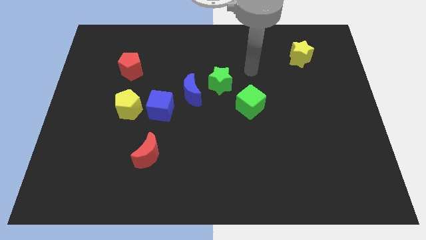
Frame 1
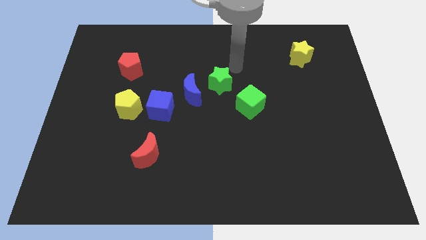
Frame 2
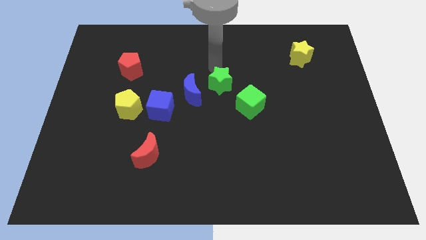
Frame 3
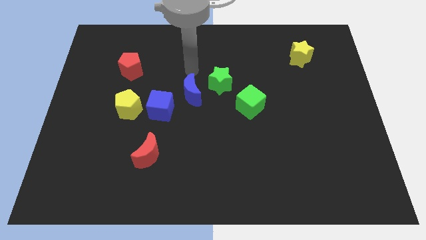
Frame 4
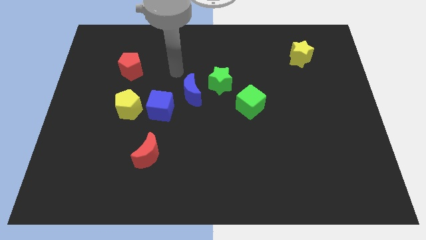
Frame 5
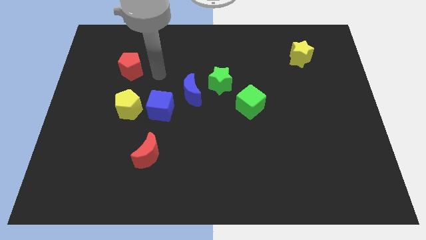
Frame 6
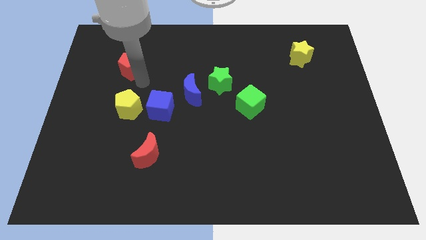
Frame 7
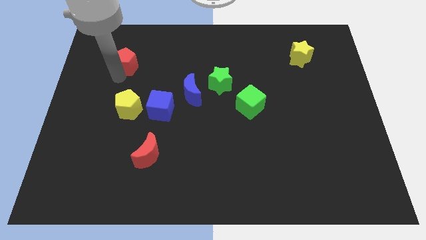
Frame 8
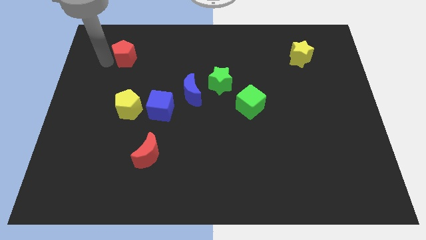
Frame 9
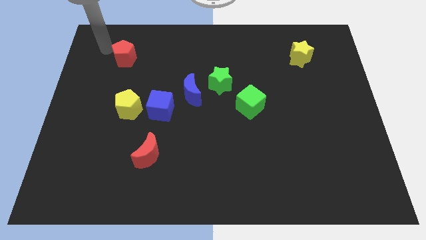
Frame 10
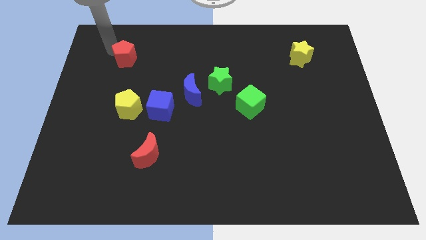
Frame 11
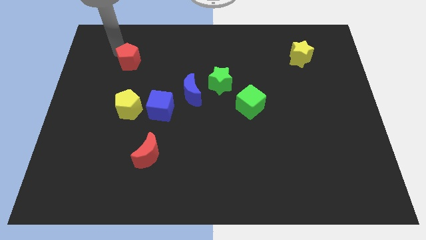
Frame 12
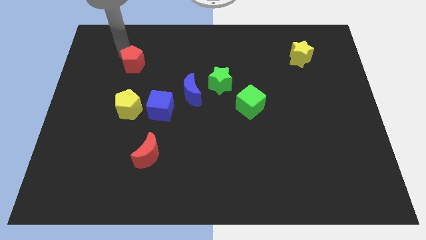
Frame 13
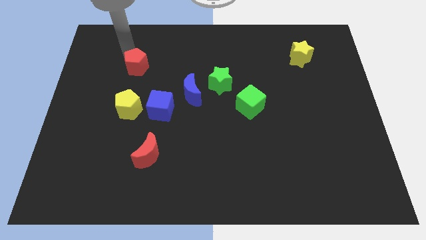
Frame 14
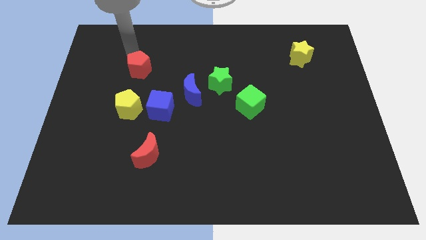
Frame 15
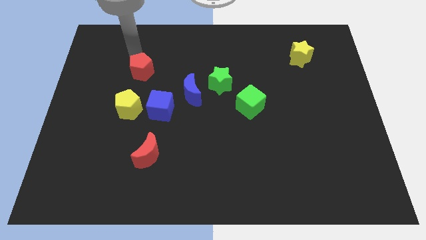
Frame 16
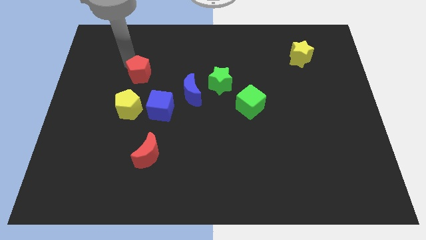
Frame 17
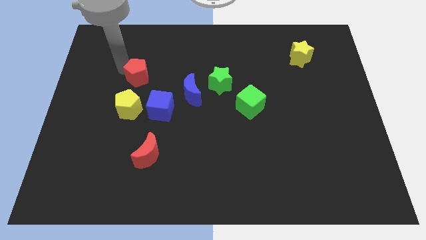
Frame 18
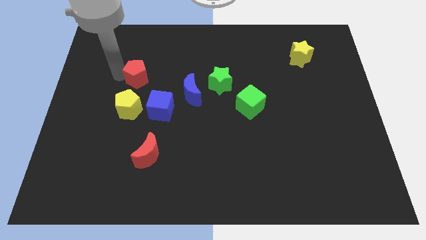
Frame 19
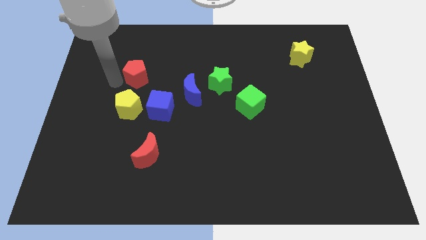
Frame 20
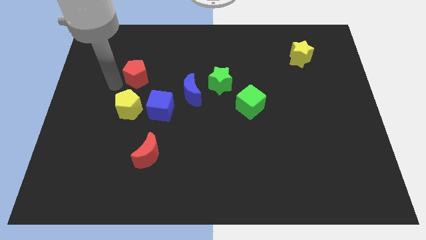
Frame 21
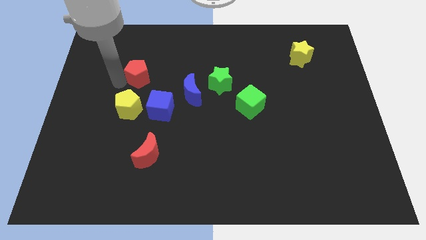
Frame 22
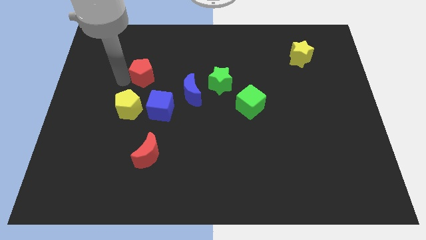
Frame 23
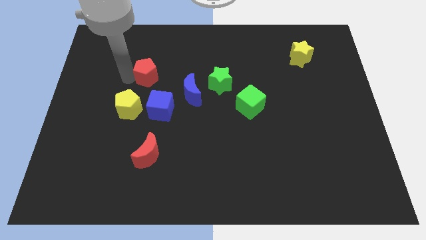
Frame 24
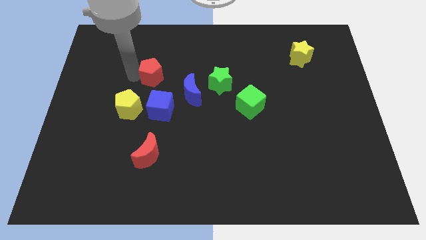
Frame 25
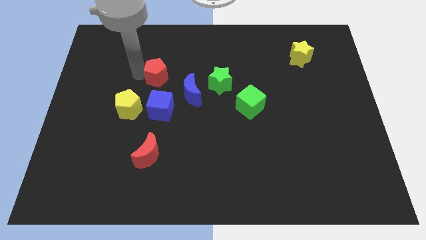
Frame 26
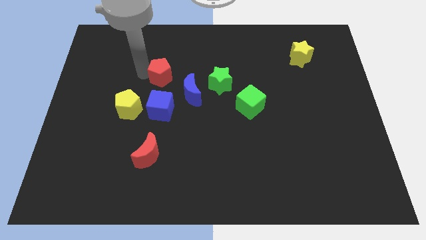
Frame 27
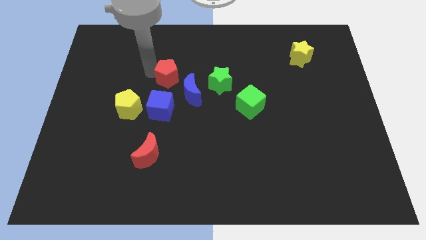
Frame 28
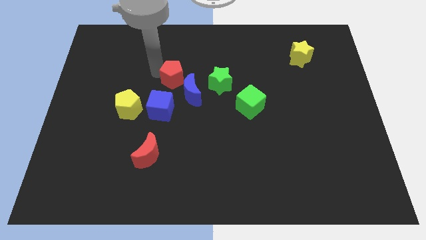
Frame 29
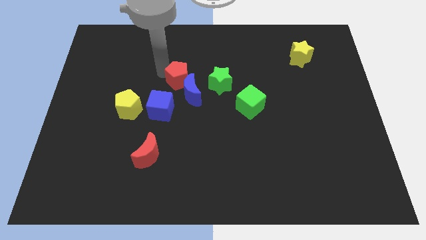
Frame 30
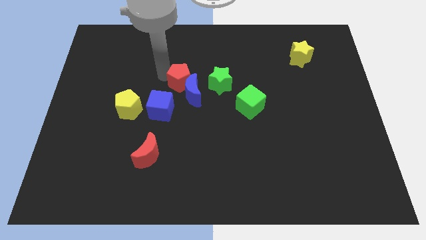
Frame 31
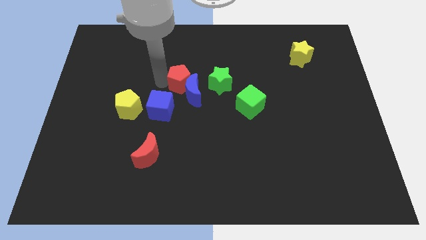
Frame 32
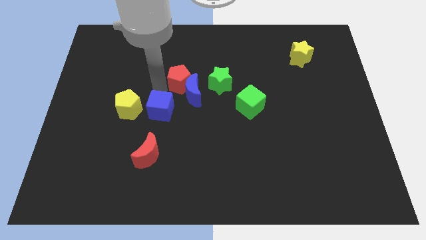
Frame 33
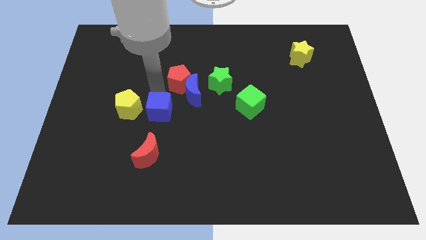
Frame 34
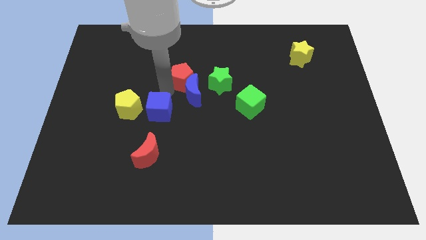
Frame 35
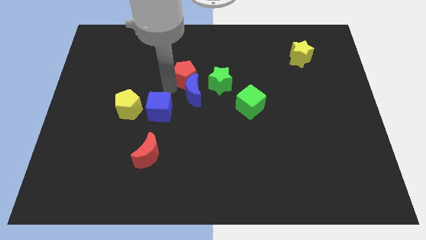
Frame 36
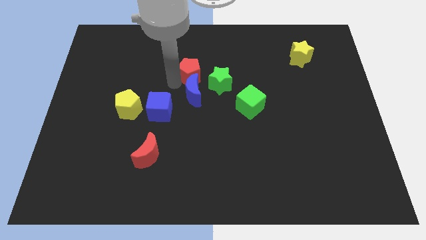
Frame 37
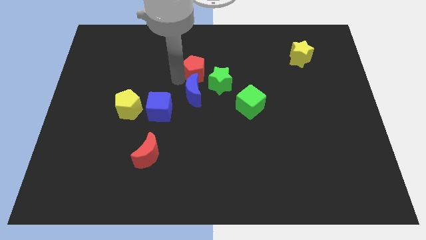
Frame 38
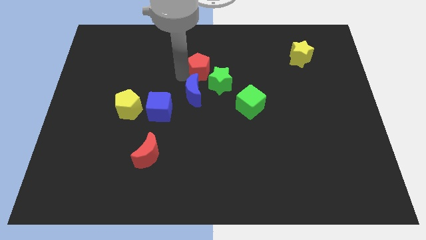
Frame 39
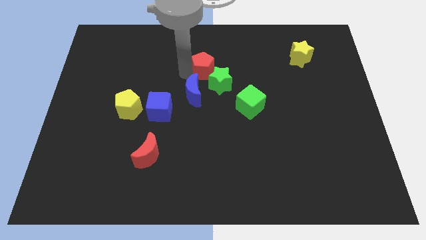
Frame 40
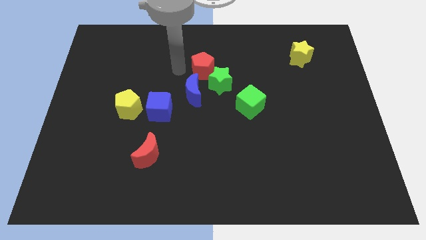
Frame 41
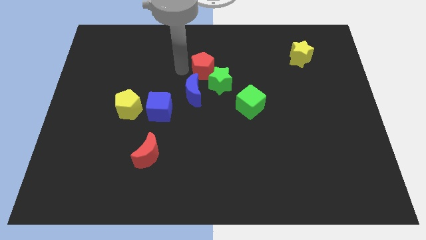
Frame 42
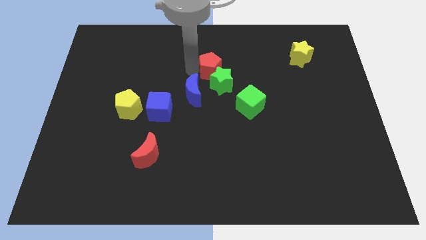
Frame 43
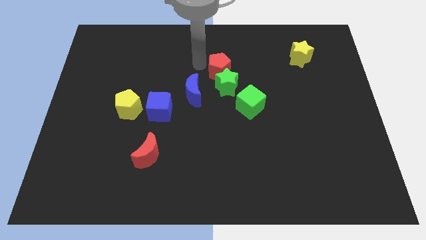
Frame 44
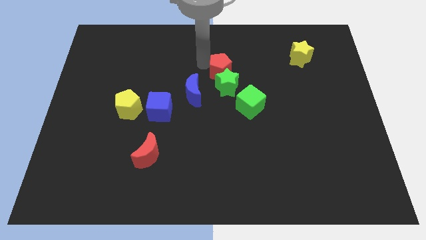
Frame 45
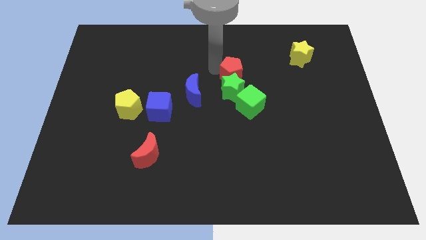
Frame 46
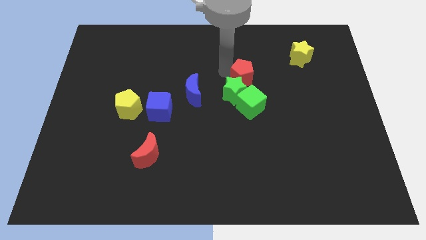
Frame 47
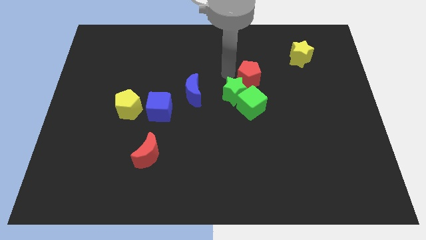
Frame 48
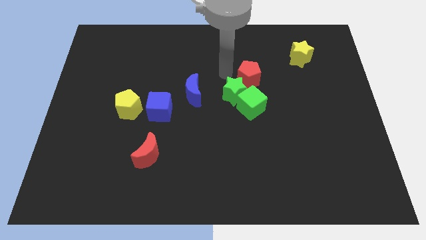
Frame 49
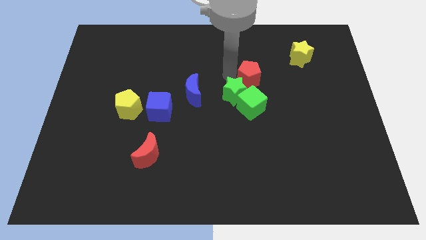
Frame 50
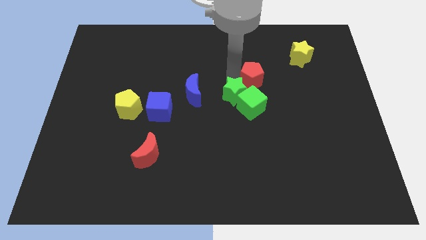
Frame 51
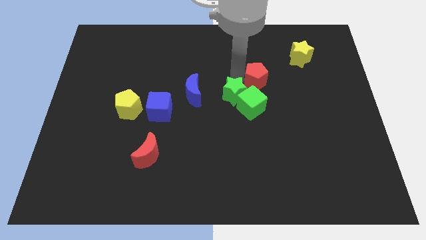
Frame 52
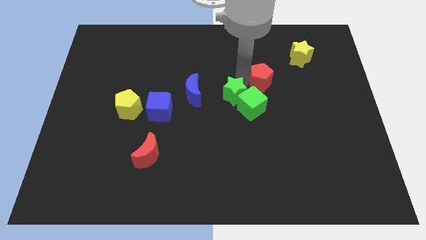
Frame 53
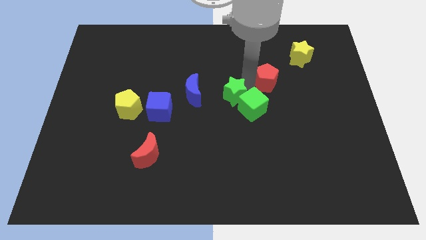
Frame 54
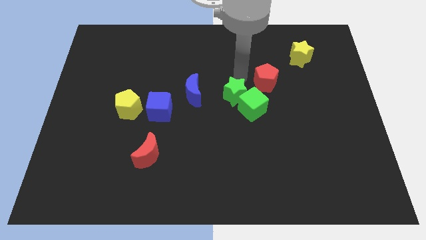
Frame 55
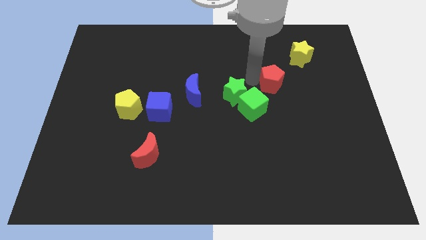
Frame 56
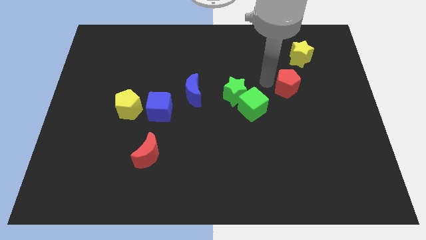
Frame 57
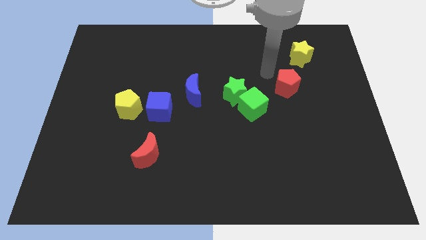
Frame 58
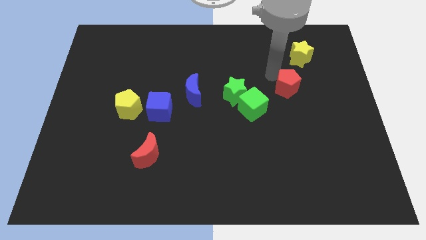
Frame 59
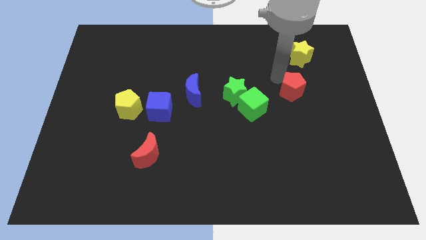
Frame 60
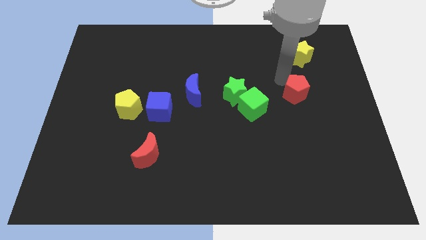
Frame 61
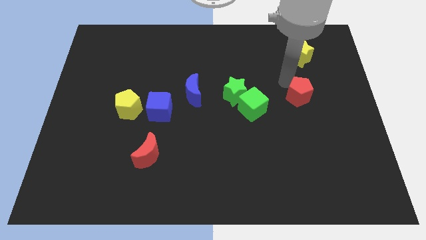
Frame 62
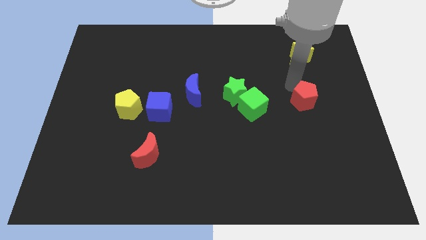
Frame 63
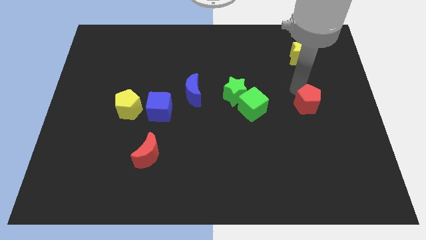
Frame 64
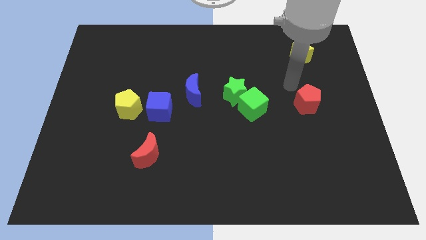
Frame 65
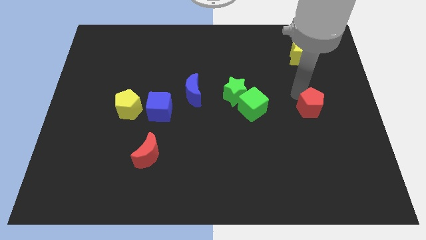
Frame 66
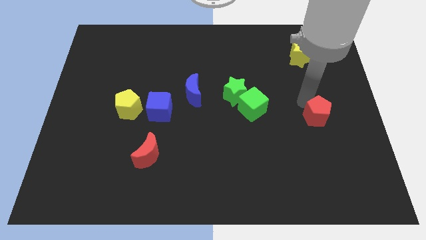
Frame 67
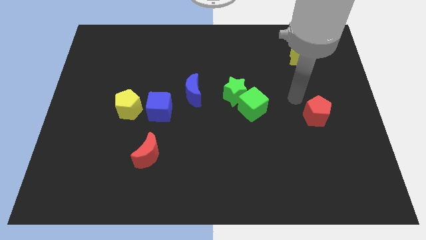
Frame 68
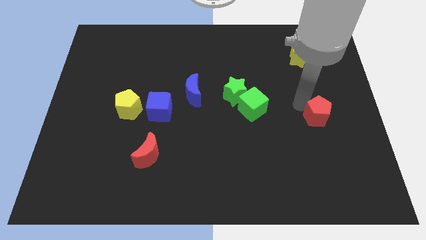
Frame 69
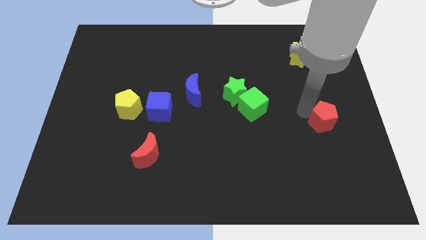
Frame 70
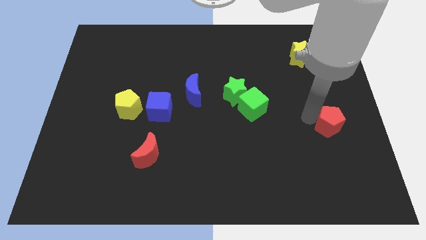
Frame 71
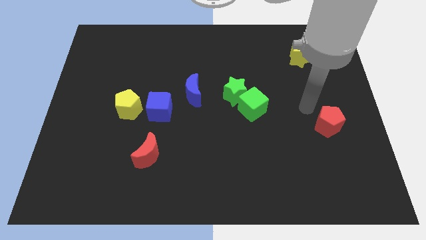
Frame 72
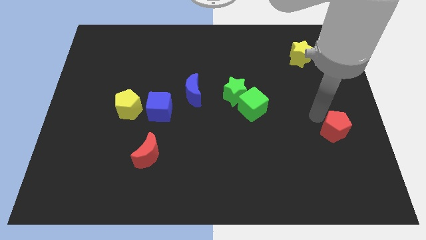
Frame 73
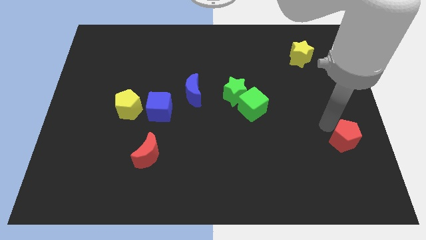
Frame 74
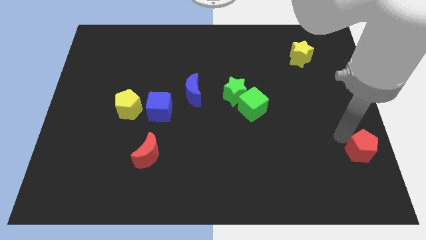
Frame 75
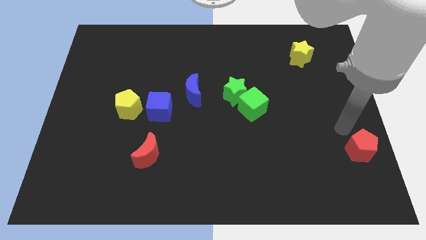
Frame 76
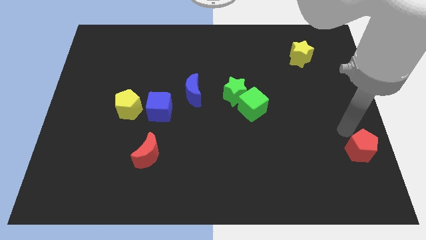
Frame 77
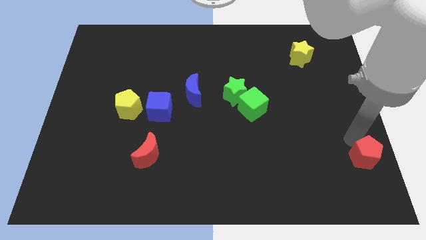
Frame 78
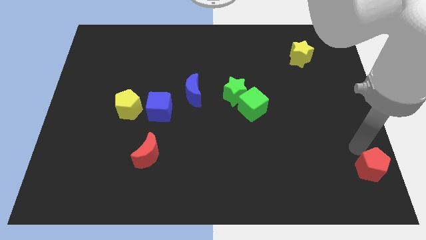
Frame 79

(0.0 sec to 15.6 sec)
push the red pentagon to the bottom right
